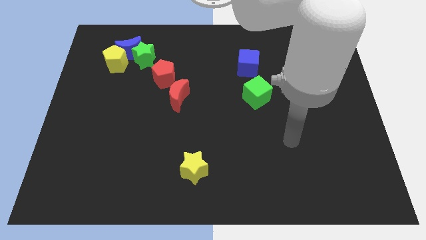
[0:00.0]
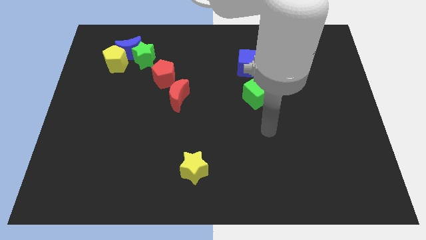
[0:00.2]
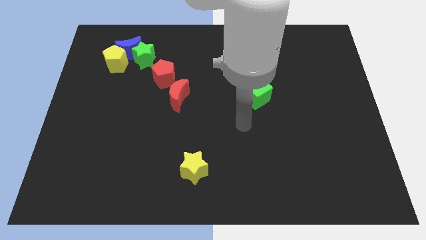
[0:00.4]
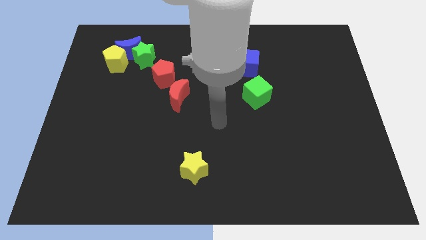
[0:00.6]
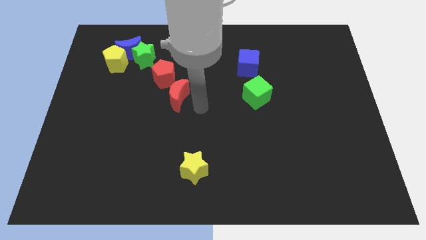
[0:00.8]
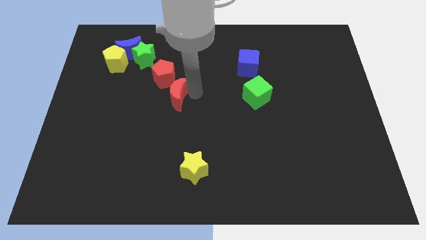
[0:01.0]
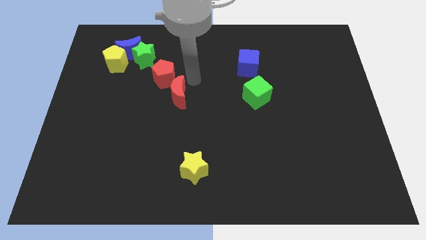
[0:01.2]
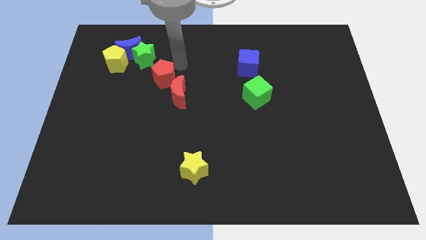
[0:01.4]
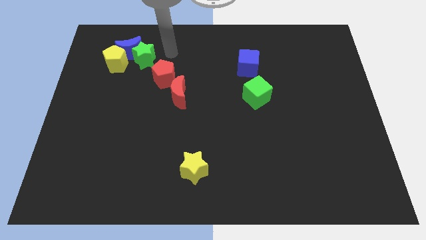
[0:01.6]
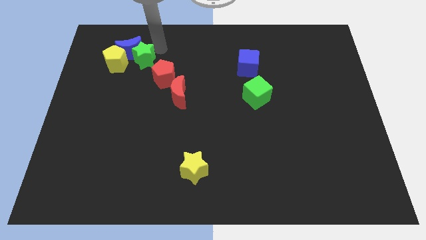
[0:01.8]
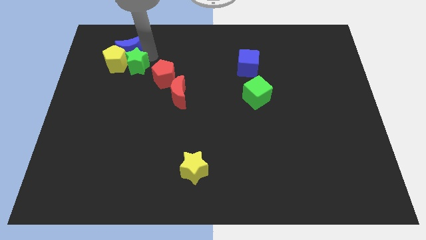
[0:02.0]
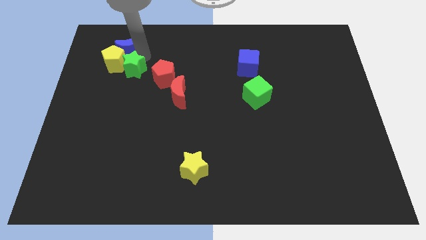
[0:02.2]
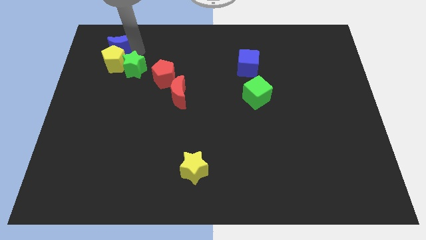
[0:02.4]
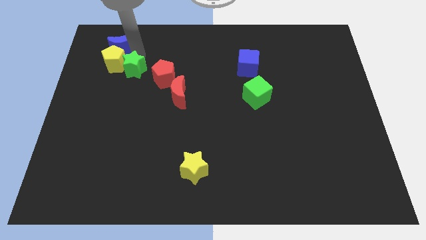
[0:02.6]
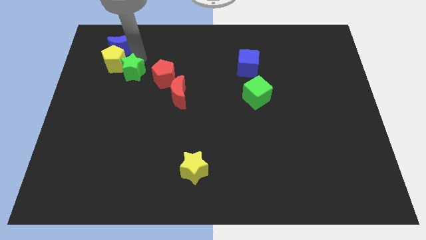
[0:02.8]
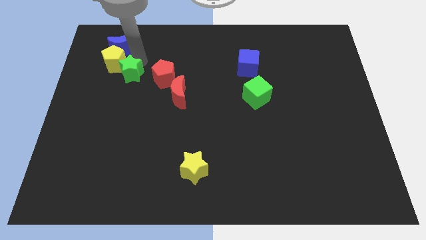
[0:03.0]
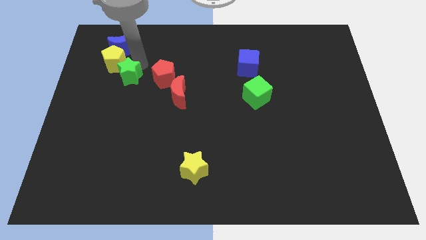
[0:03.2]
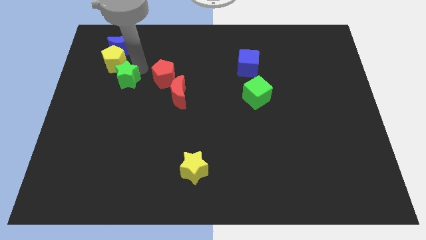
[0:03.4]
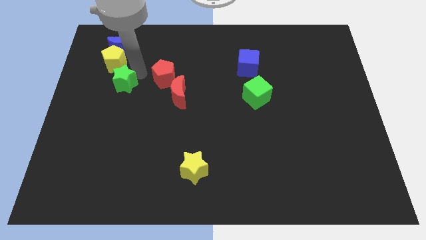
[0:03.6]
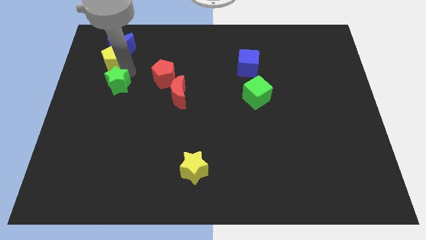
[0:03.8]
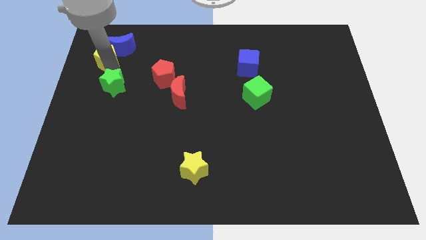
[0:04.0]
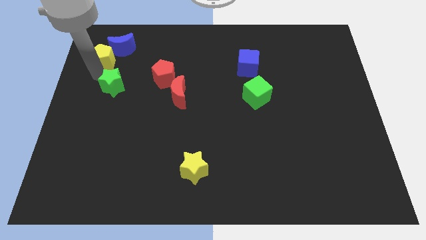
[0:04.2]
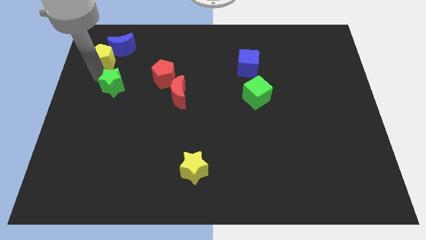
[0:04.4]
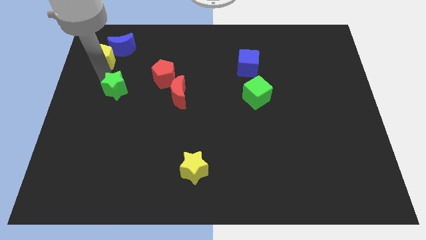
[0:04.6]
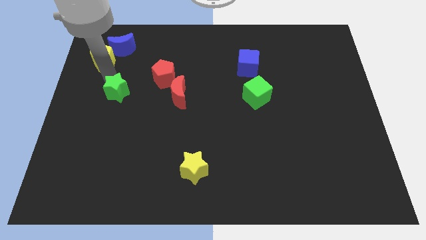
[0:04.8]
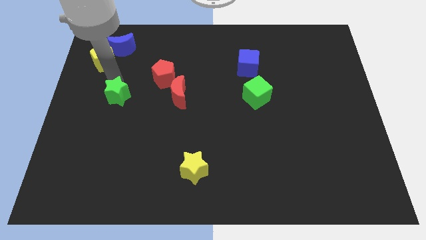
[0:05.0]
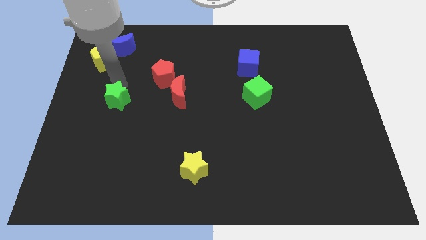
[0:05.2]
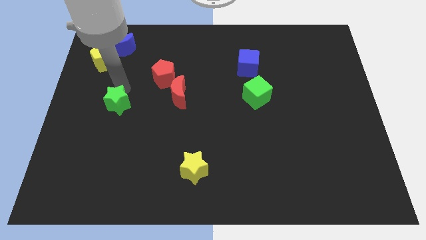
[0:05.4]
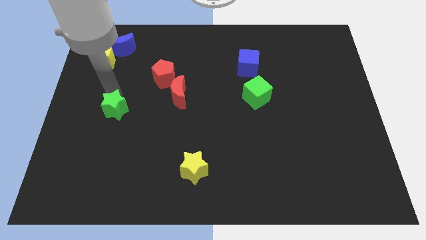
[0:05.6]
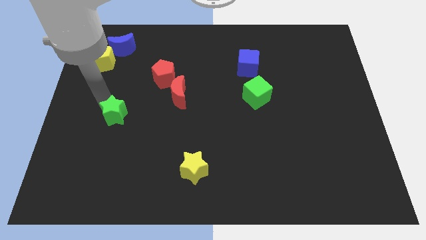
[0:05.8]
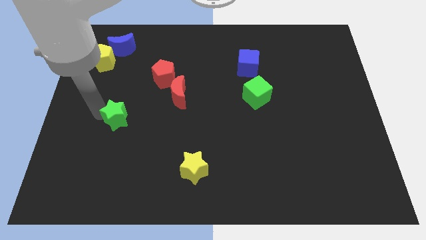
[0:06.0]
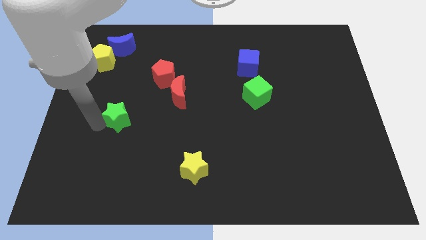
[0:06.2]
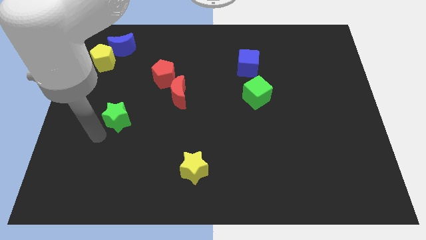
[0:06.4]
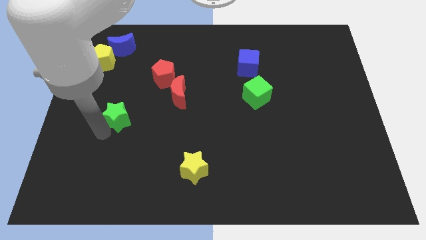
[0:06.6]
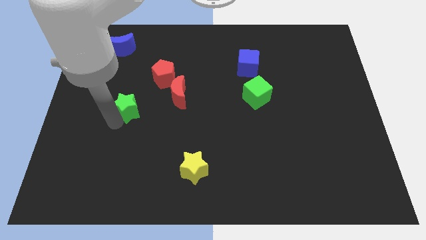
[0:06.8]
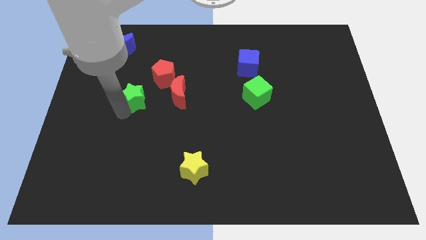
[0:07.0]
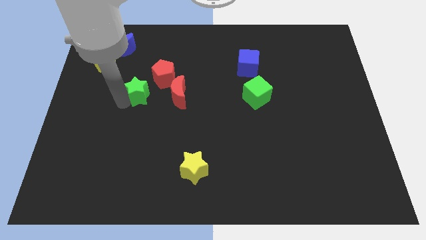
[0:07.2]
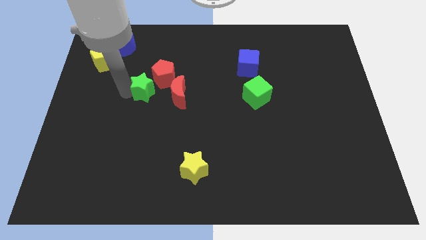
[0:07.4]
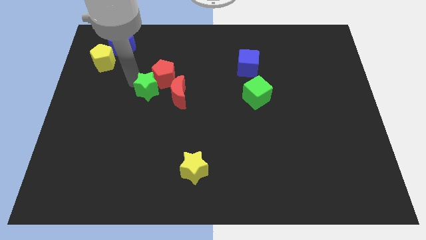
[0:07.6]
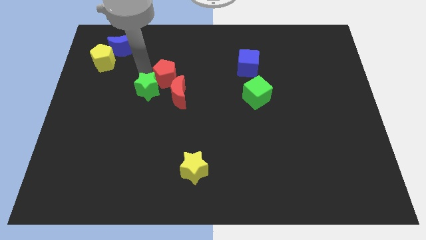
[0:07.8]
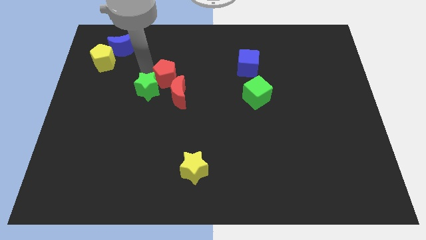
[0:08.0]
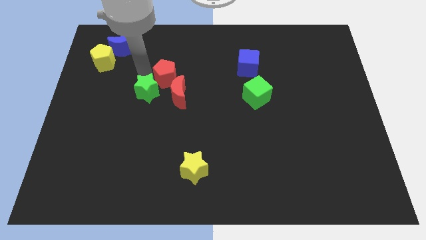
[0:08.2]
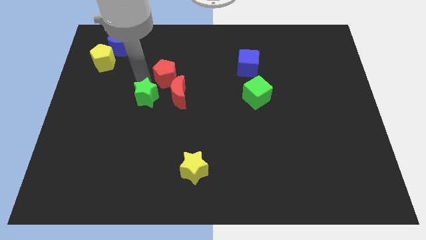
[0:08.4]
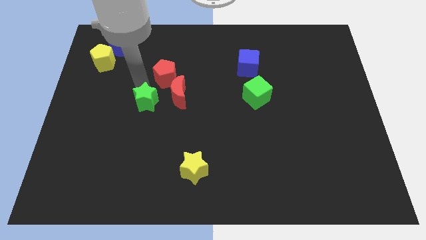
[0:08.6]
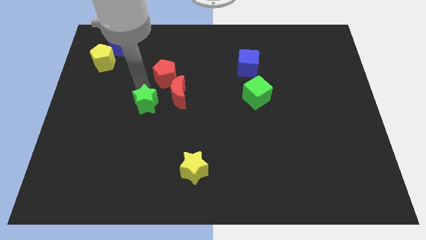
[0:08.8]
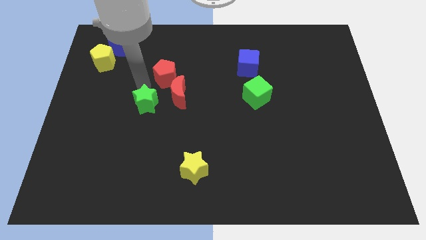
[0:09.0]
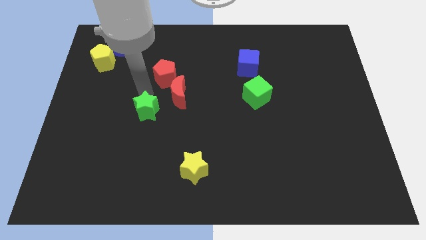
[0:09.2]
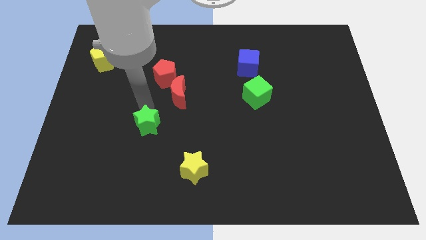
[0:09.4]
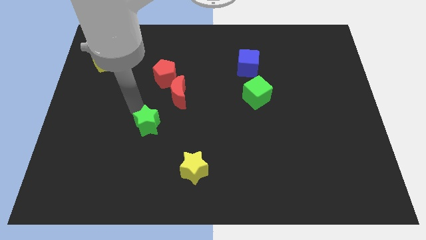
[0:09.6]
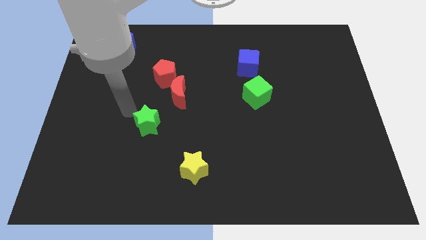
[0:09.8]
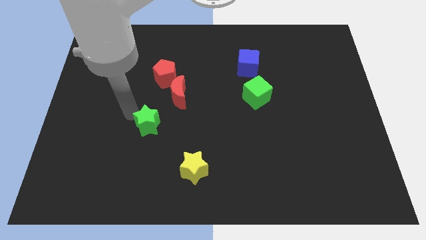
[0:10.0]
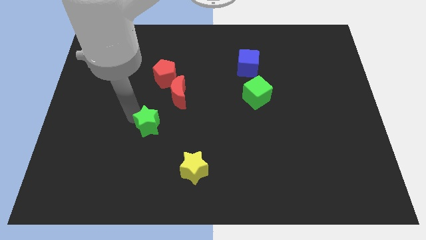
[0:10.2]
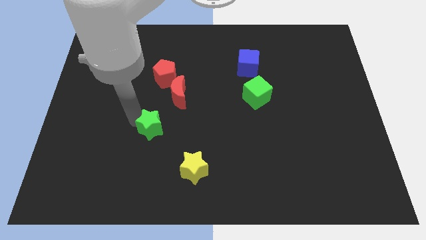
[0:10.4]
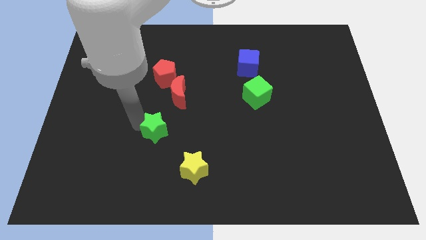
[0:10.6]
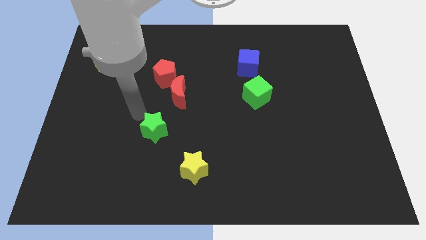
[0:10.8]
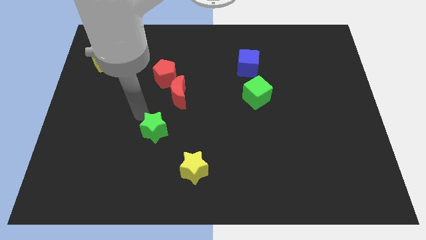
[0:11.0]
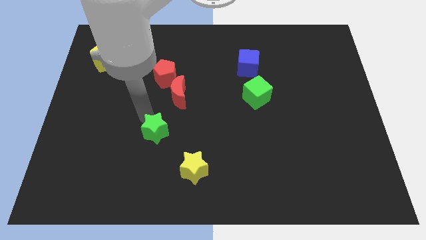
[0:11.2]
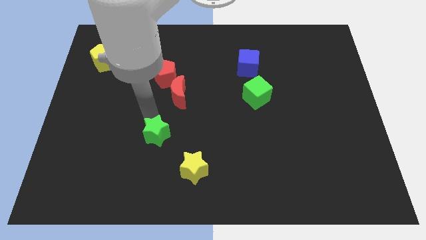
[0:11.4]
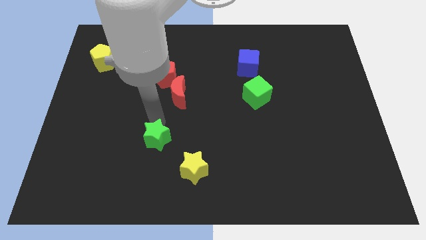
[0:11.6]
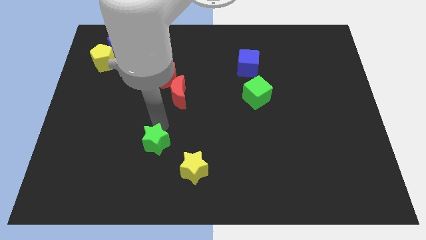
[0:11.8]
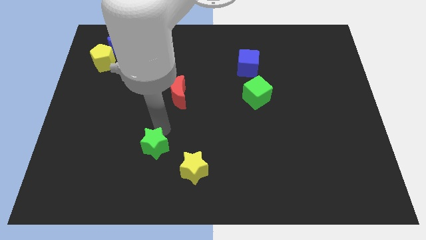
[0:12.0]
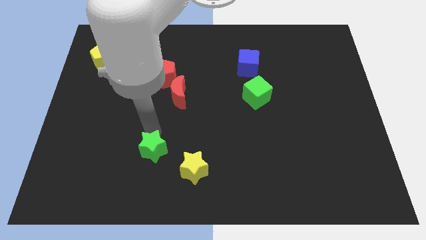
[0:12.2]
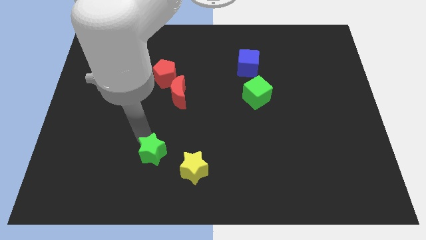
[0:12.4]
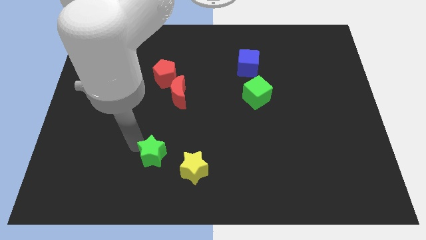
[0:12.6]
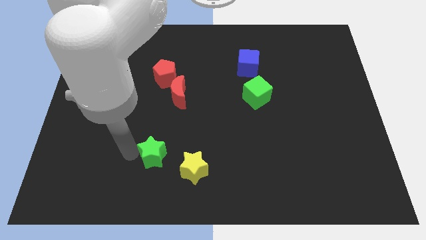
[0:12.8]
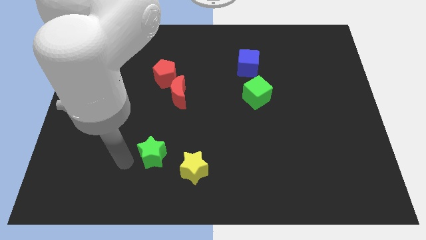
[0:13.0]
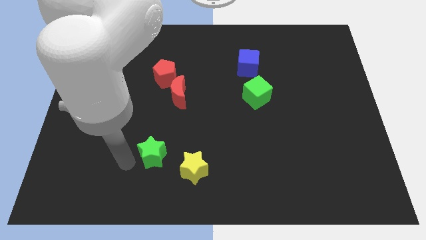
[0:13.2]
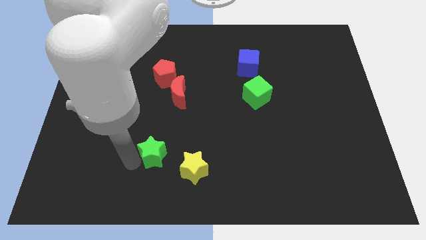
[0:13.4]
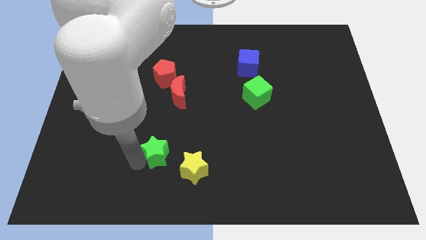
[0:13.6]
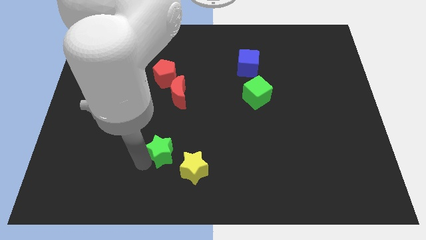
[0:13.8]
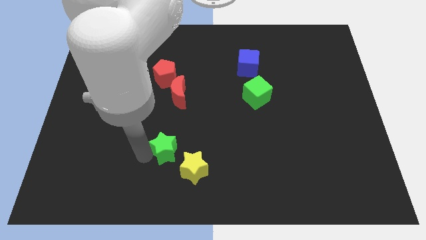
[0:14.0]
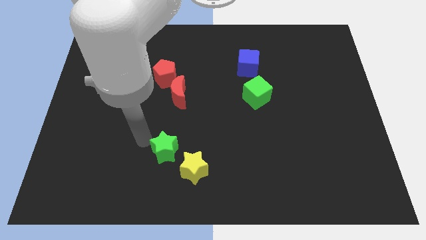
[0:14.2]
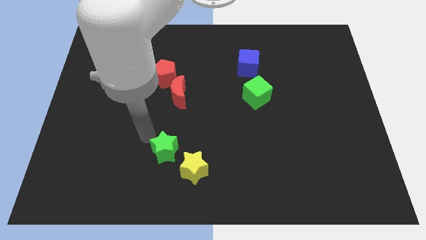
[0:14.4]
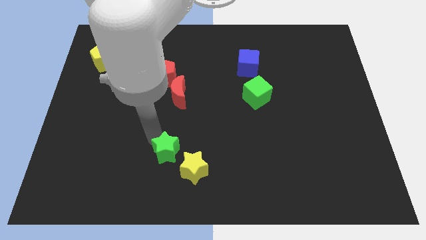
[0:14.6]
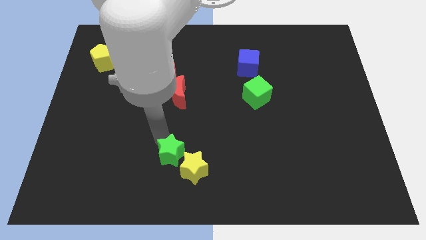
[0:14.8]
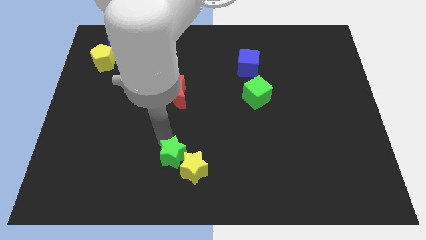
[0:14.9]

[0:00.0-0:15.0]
push the green star next to the yellow star

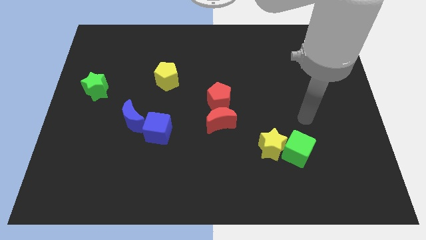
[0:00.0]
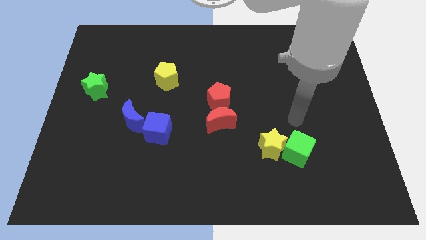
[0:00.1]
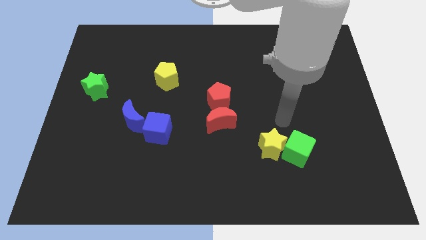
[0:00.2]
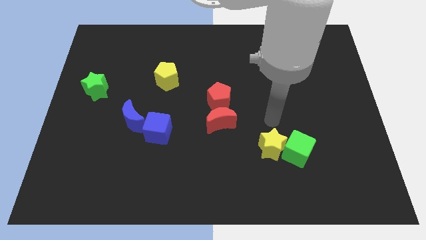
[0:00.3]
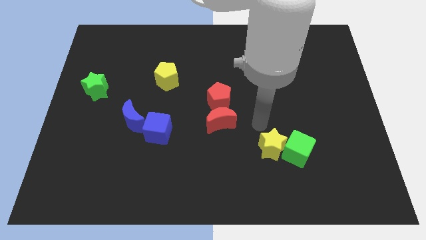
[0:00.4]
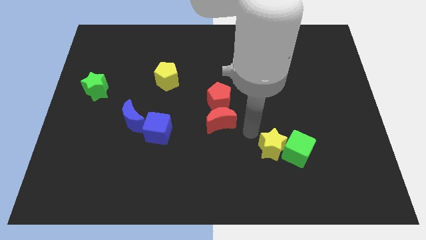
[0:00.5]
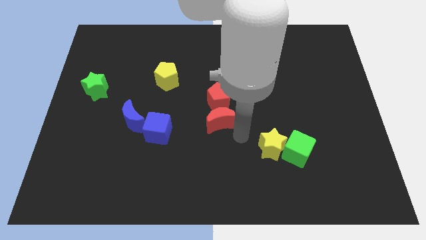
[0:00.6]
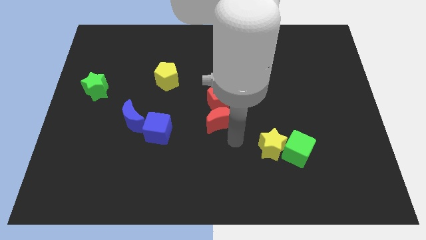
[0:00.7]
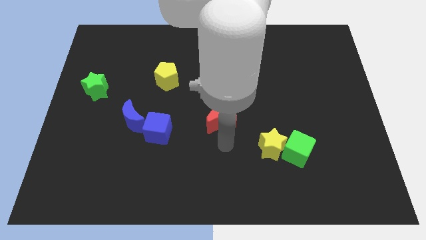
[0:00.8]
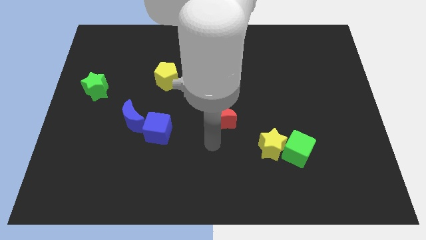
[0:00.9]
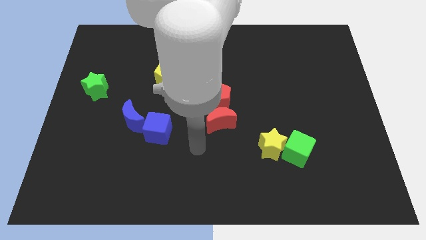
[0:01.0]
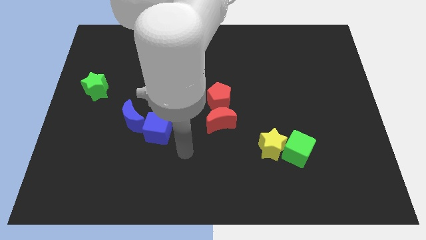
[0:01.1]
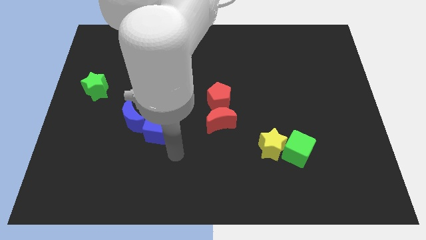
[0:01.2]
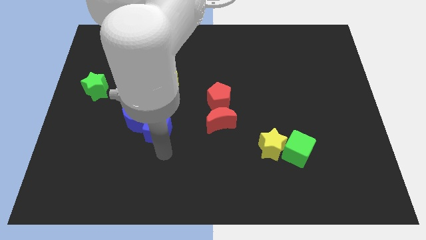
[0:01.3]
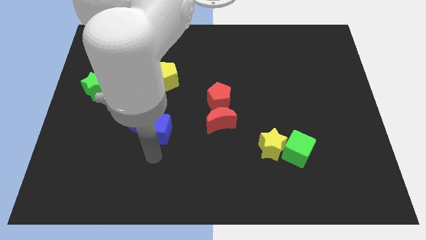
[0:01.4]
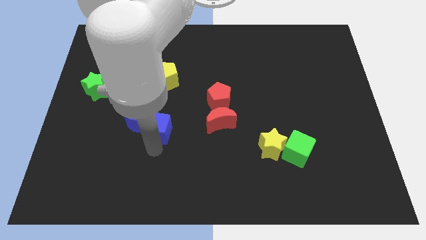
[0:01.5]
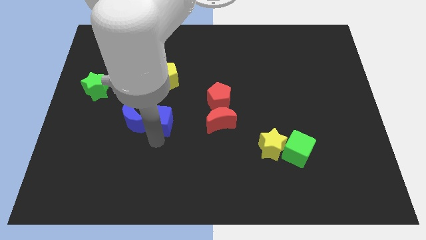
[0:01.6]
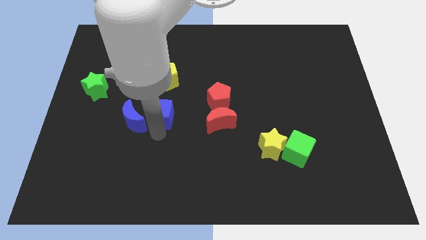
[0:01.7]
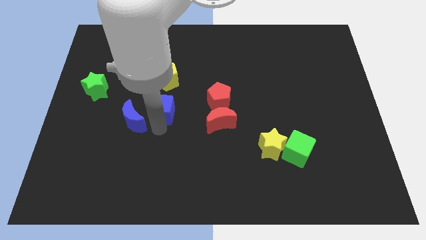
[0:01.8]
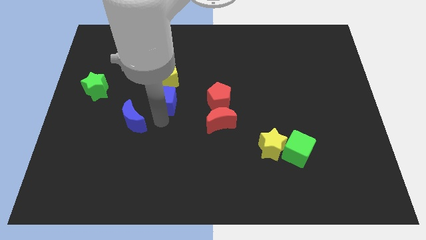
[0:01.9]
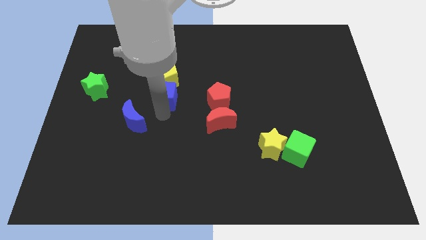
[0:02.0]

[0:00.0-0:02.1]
put the blue cube to the yellow pentagon
